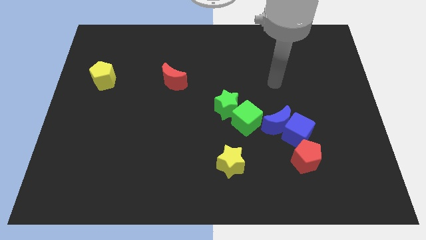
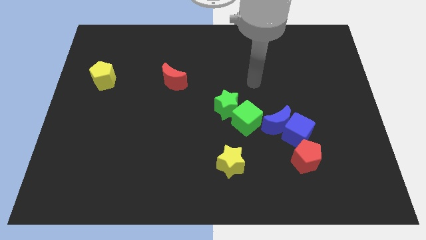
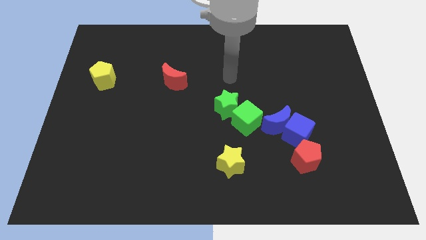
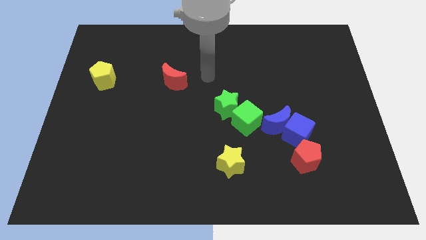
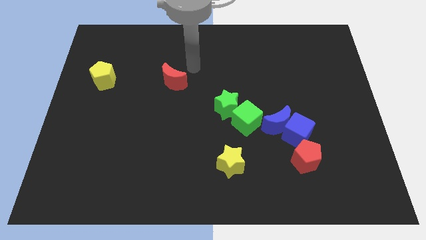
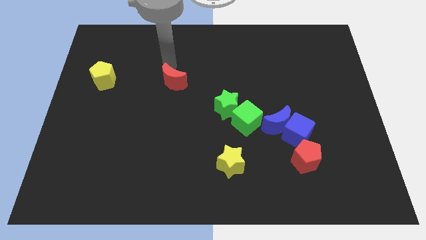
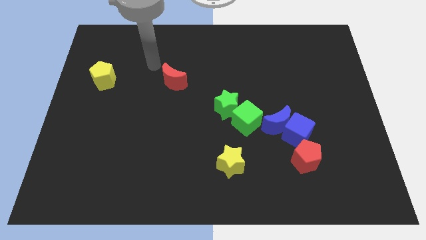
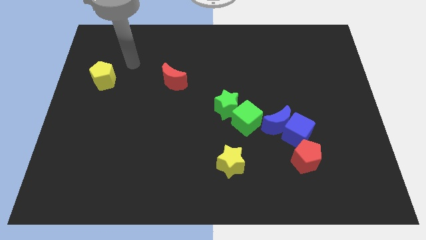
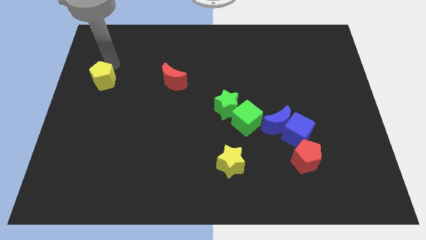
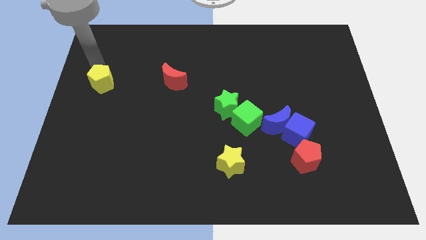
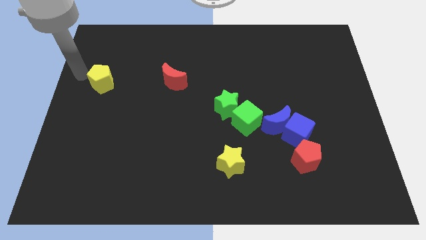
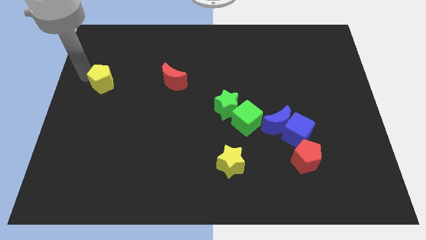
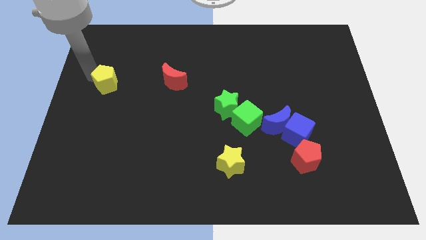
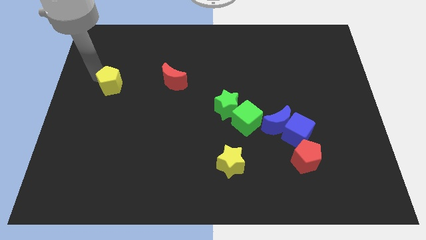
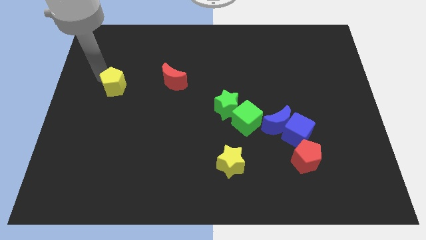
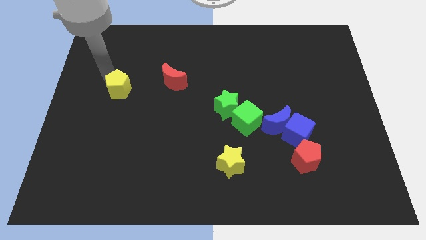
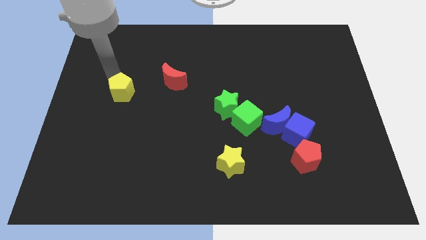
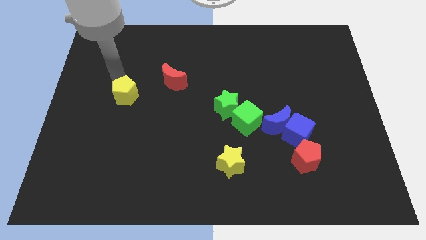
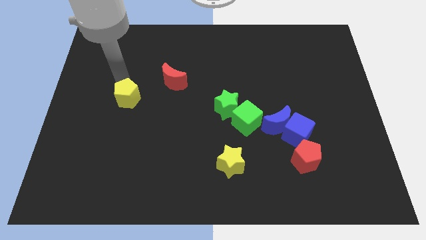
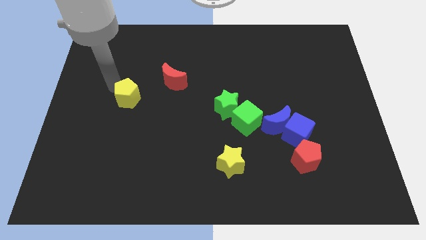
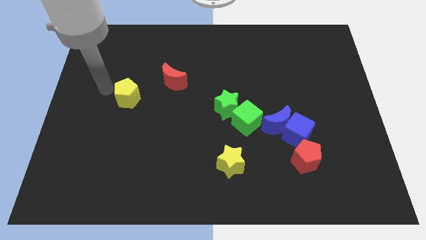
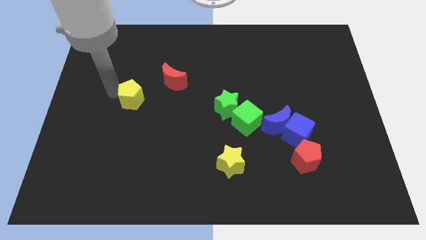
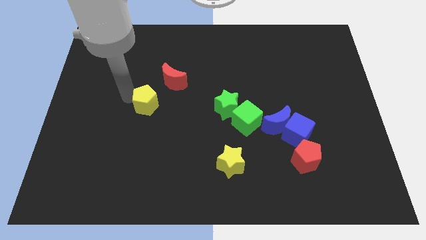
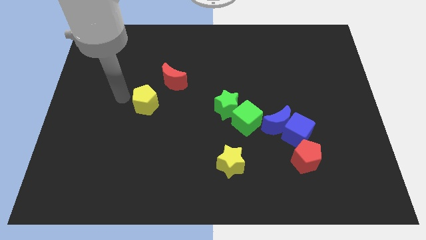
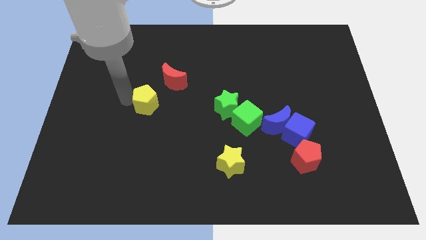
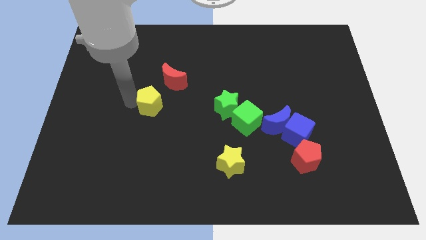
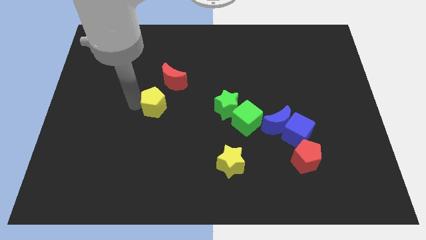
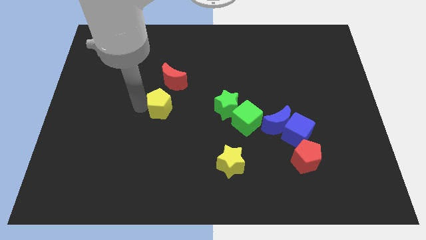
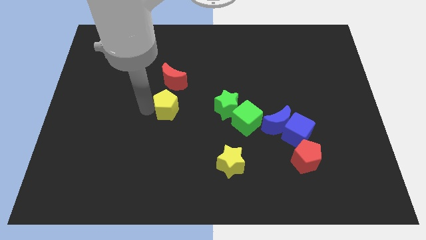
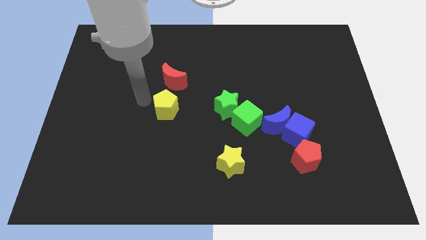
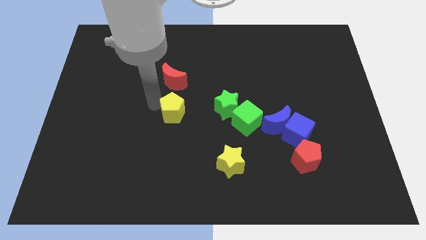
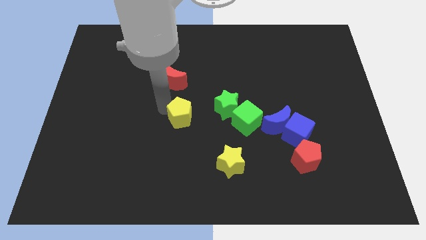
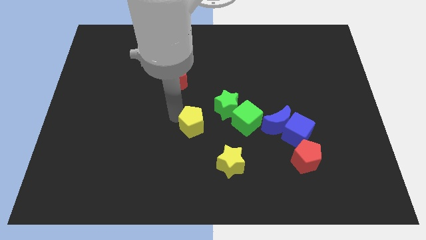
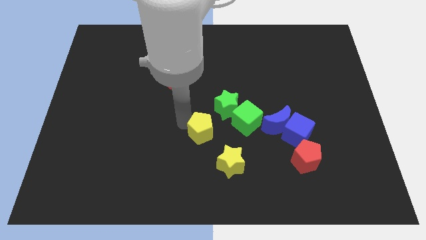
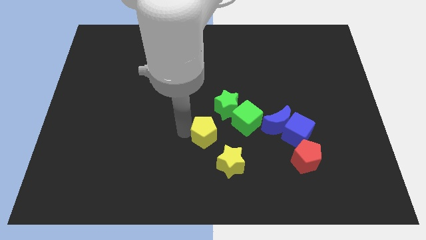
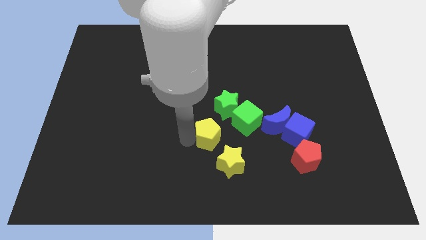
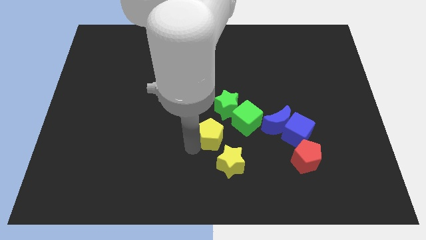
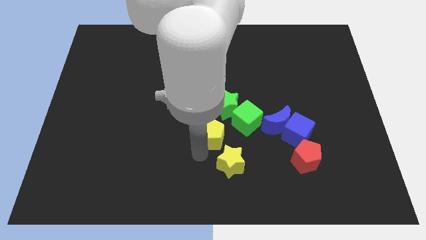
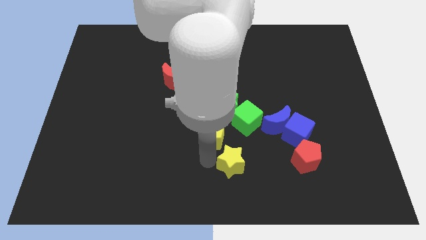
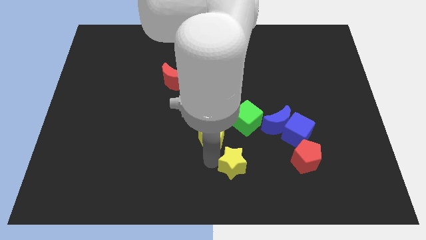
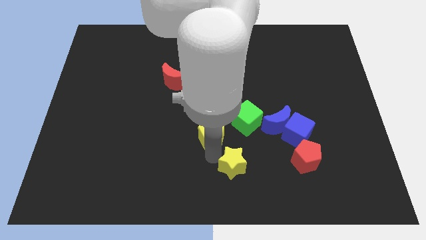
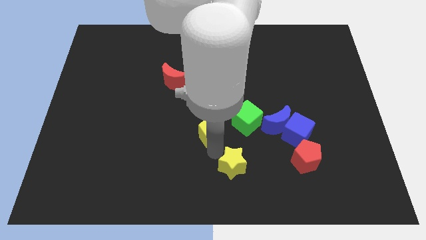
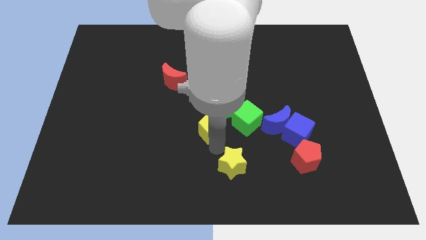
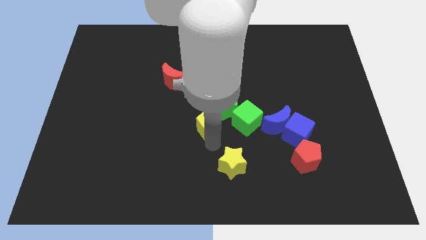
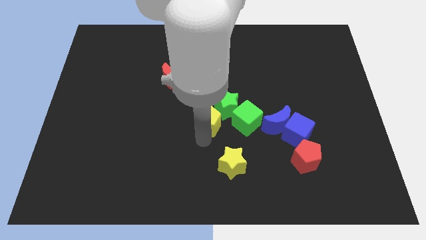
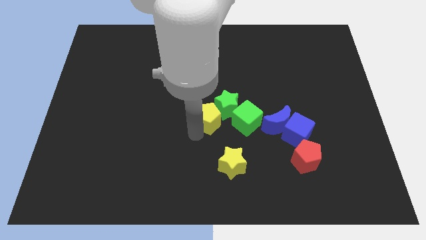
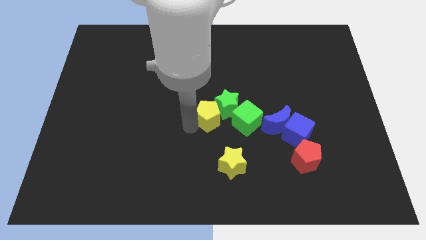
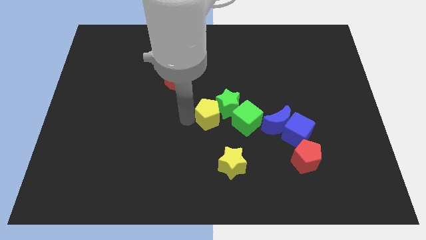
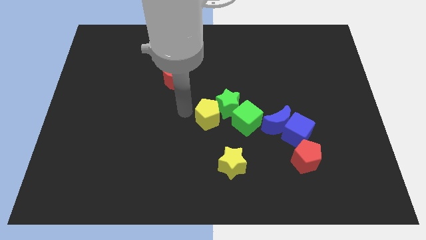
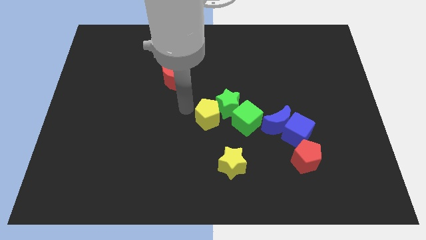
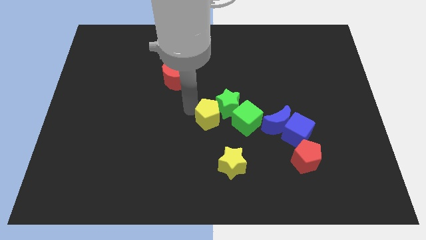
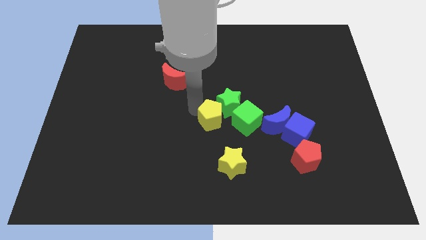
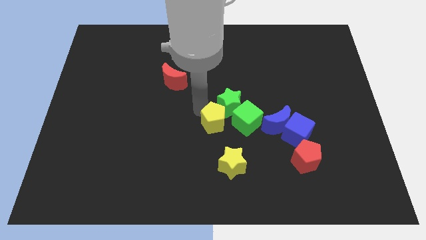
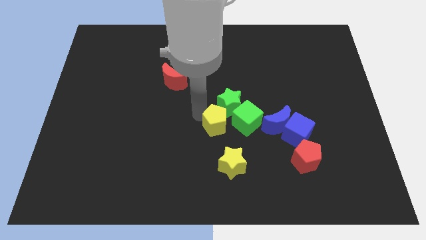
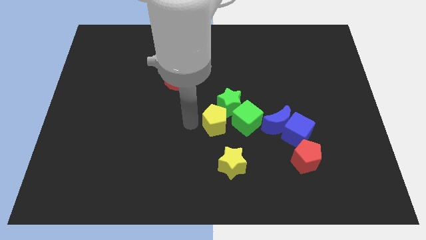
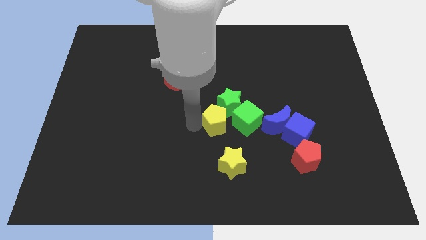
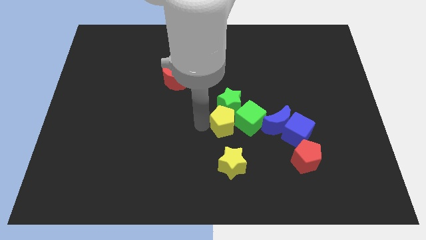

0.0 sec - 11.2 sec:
put the yellow pentagon close to the green cube

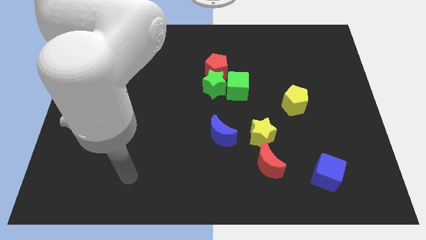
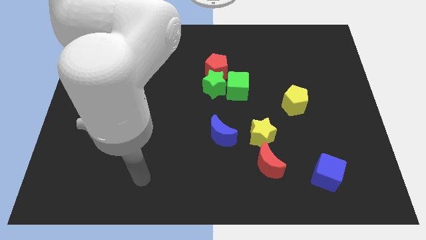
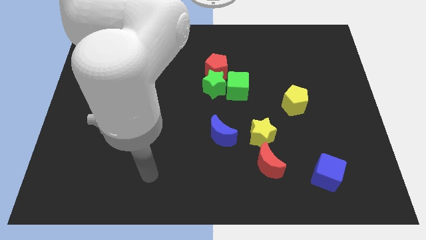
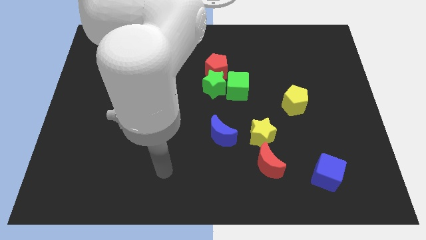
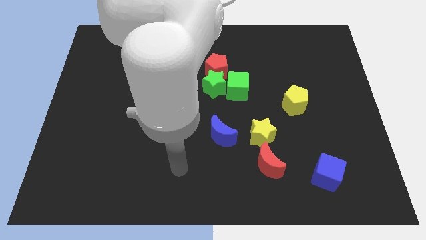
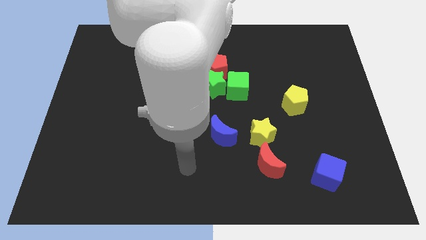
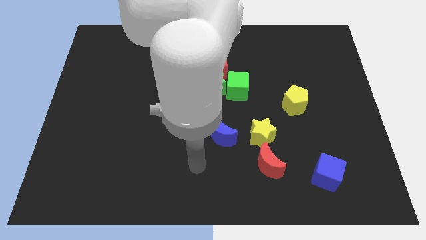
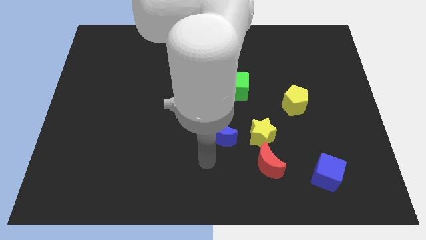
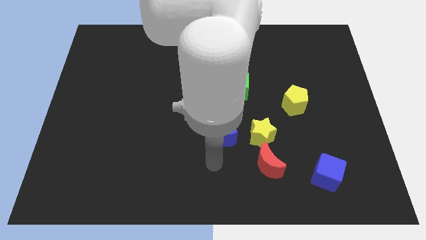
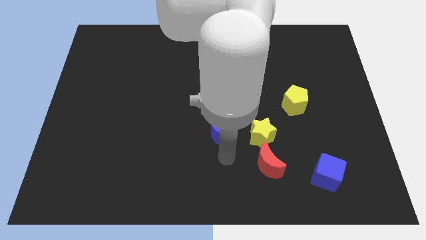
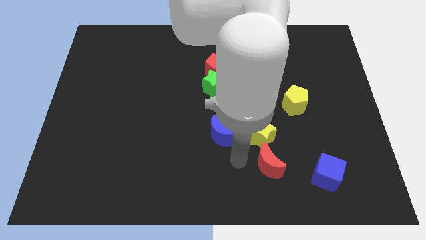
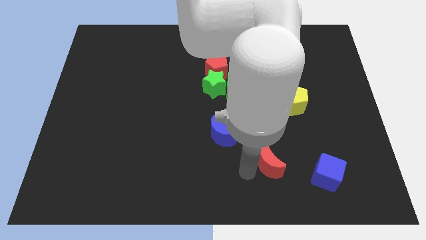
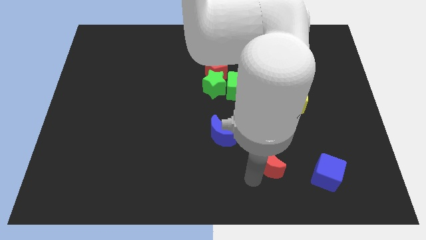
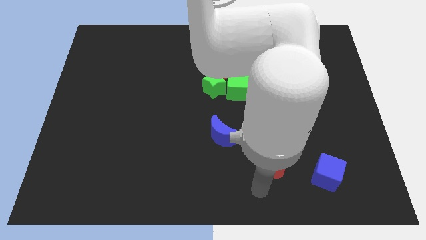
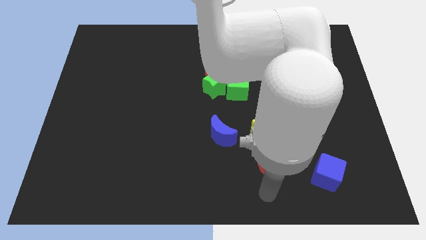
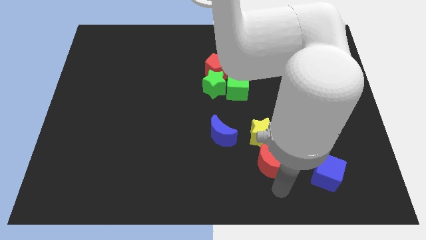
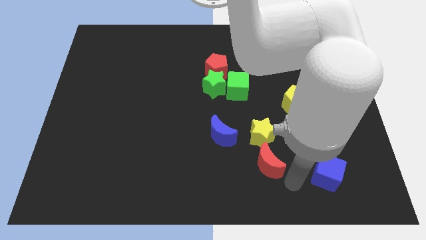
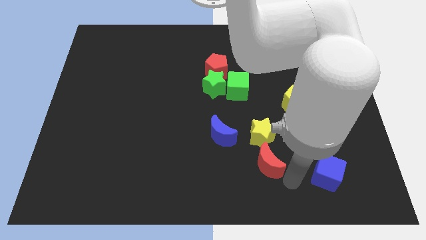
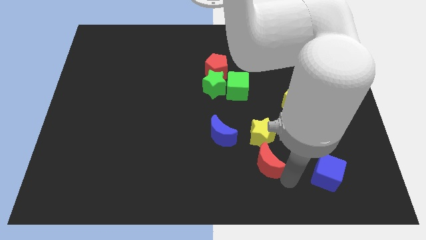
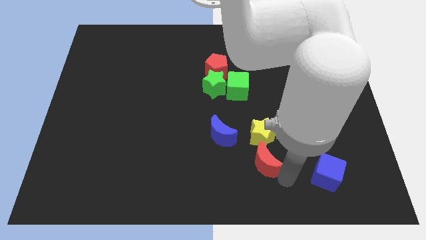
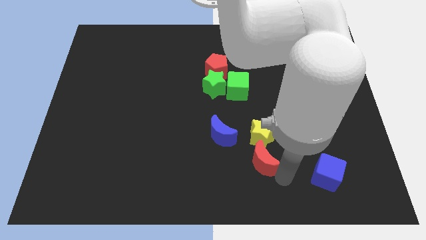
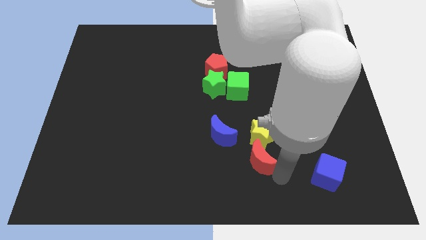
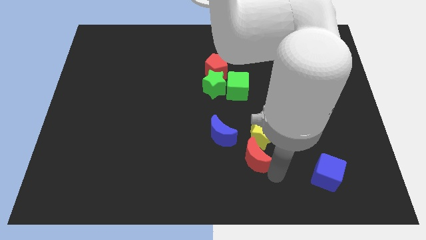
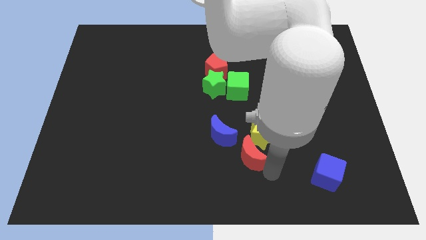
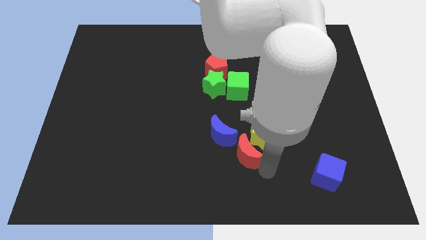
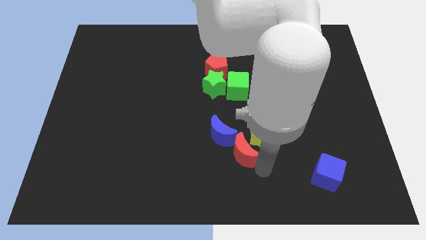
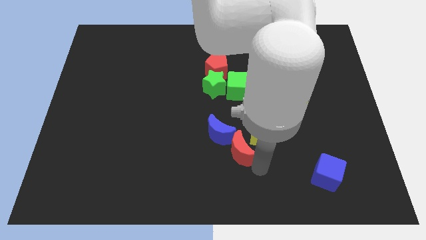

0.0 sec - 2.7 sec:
slide the red moon to the blue moon
